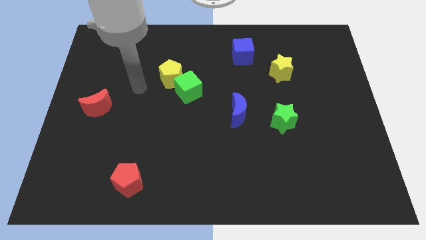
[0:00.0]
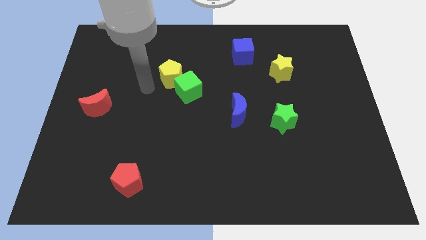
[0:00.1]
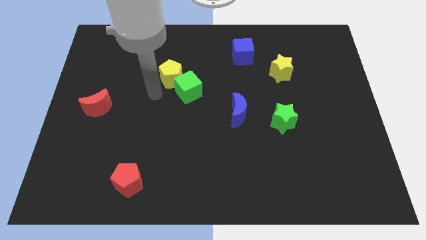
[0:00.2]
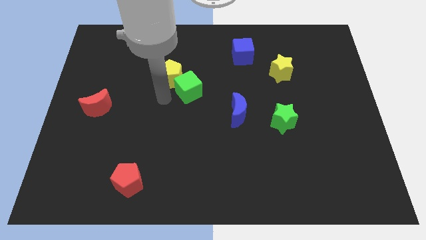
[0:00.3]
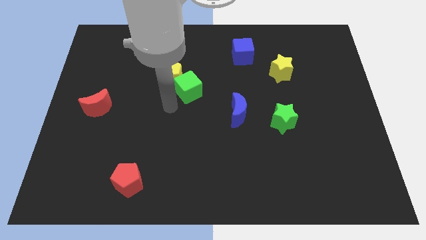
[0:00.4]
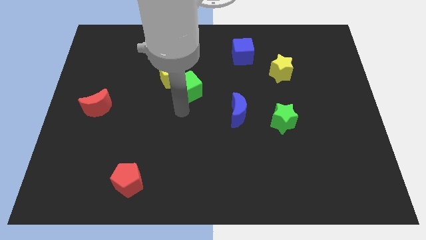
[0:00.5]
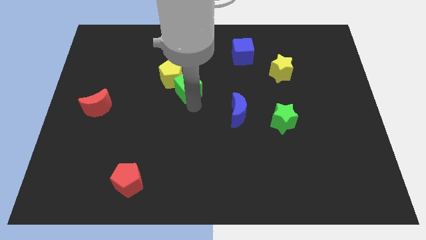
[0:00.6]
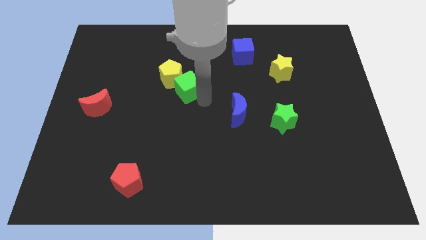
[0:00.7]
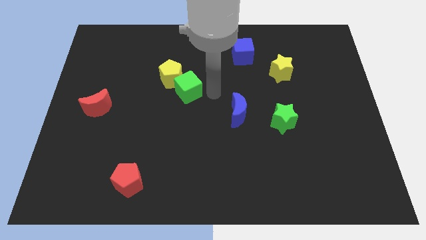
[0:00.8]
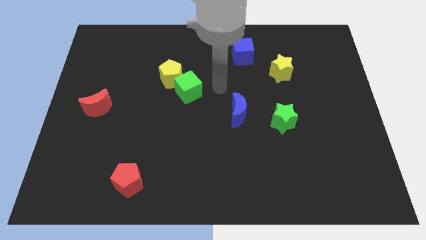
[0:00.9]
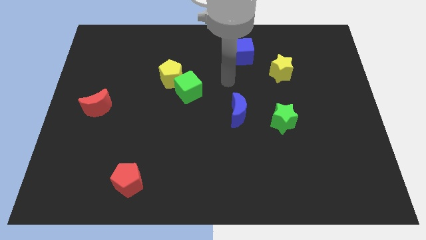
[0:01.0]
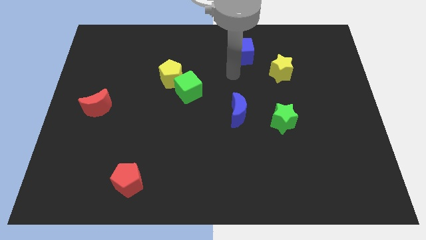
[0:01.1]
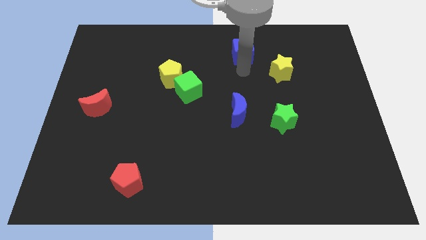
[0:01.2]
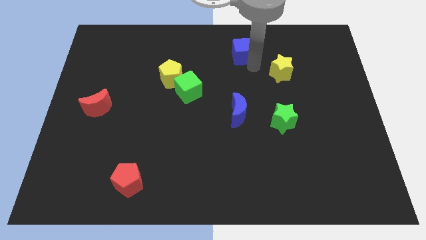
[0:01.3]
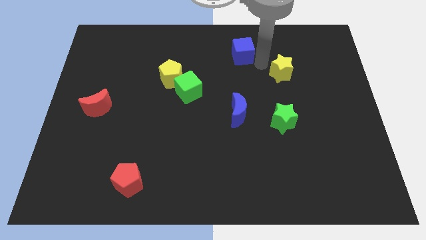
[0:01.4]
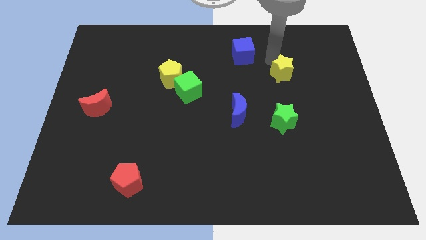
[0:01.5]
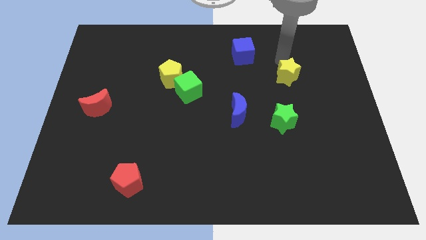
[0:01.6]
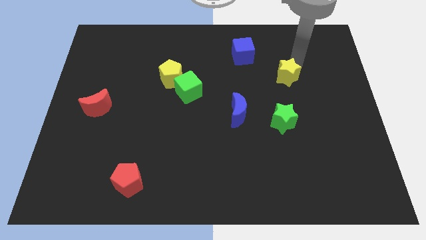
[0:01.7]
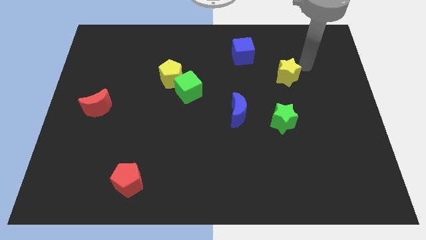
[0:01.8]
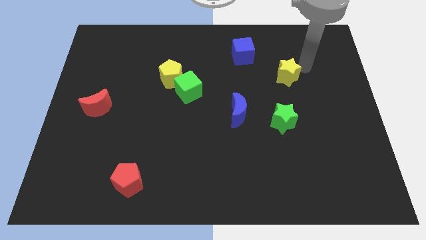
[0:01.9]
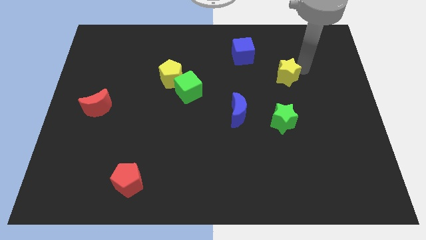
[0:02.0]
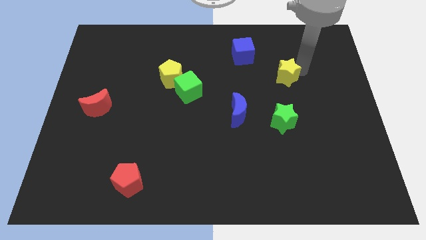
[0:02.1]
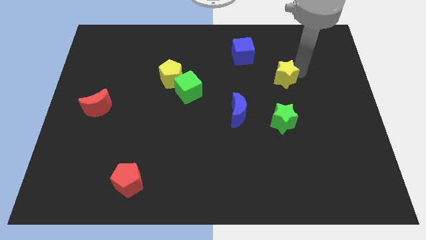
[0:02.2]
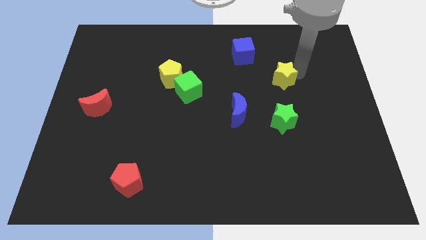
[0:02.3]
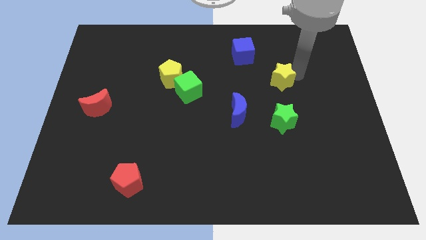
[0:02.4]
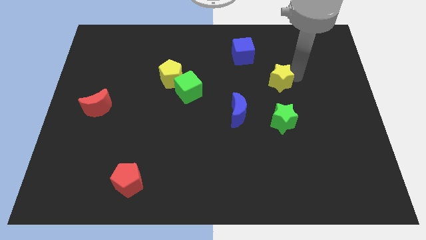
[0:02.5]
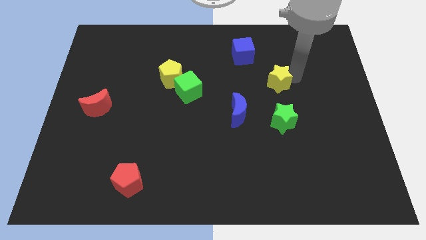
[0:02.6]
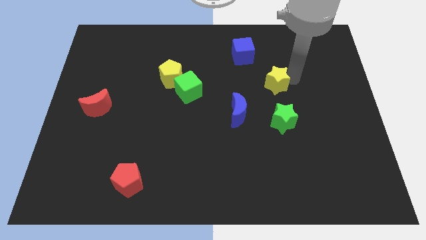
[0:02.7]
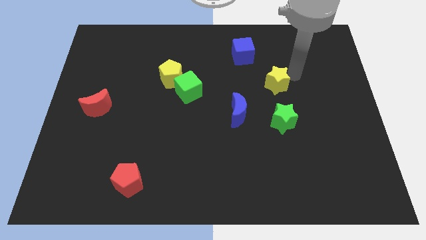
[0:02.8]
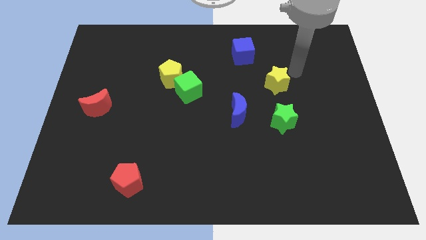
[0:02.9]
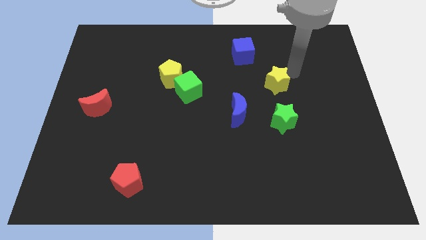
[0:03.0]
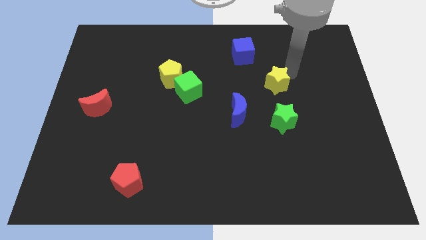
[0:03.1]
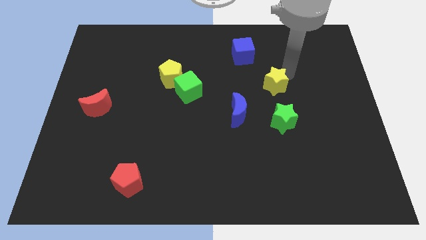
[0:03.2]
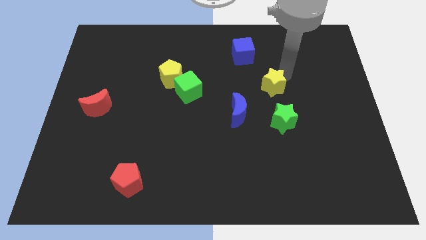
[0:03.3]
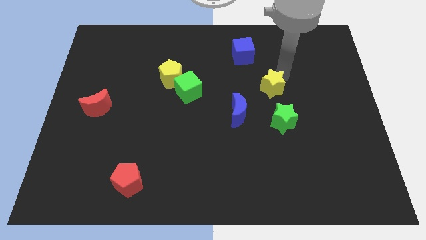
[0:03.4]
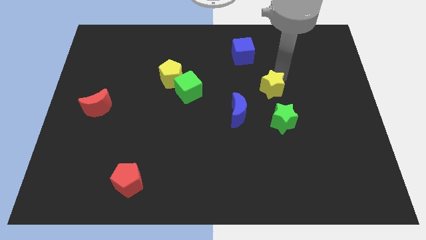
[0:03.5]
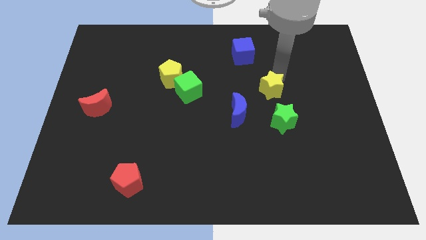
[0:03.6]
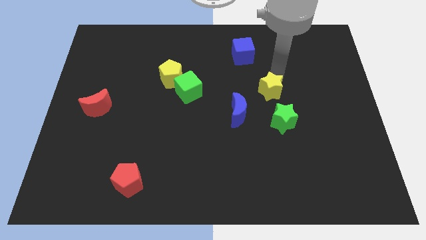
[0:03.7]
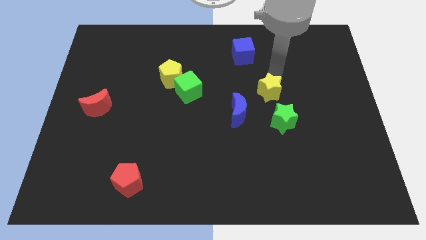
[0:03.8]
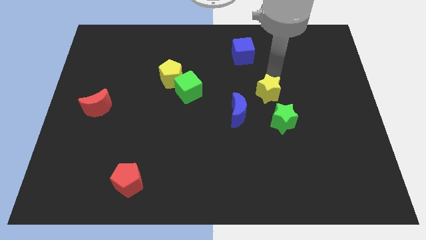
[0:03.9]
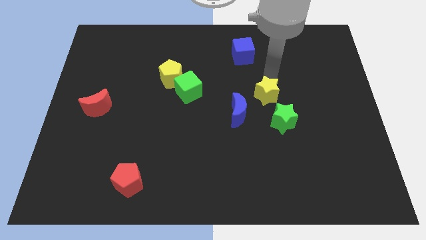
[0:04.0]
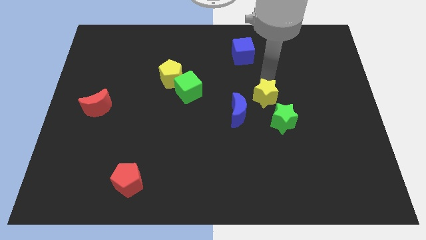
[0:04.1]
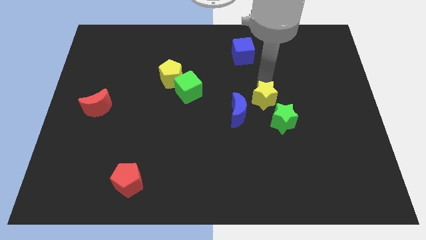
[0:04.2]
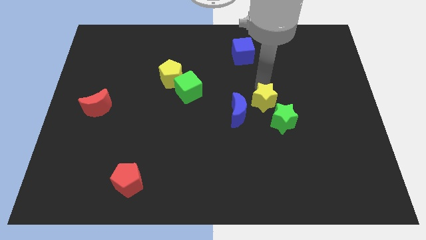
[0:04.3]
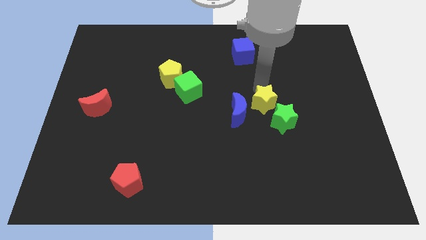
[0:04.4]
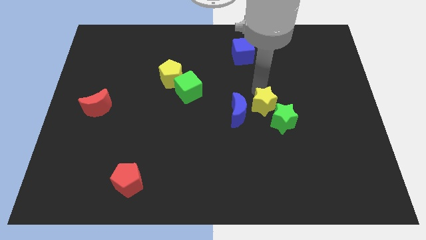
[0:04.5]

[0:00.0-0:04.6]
slide the yellow star towards the blue moon

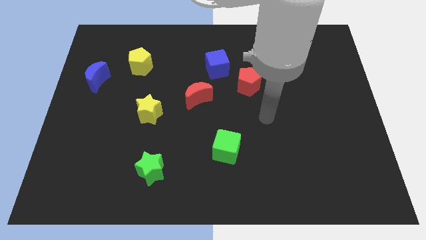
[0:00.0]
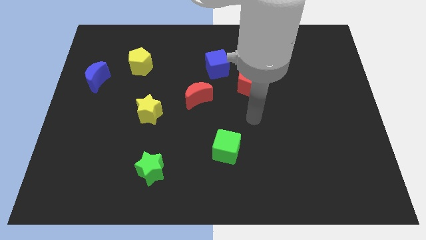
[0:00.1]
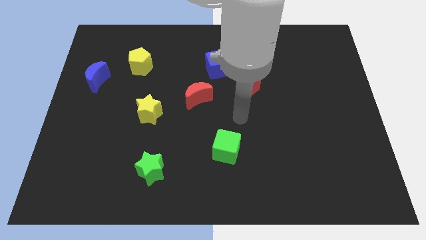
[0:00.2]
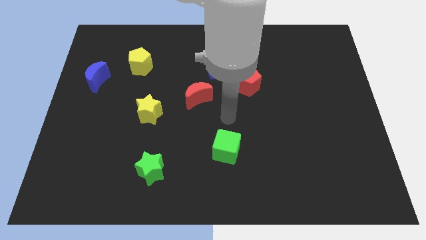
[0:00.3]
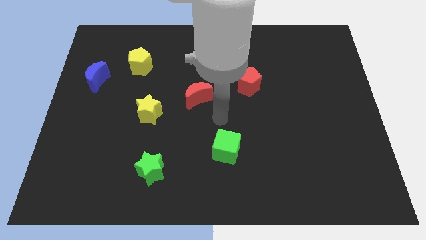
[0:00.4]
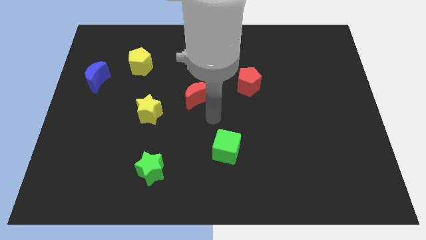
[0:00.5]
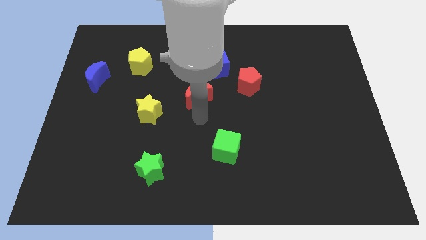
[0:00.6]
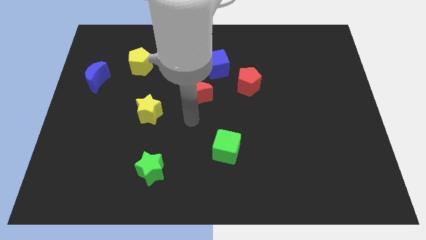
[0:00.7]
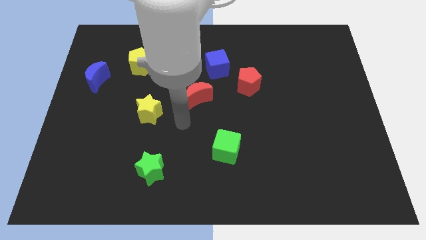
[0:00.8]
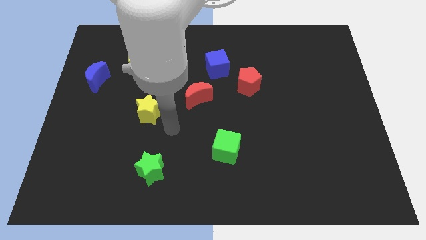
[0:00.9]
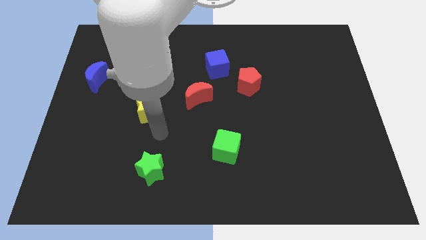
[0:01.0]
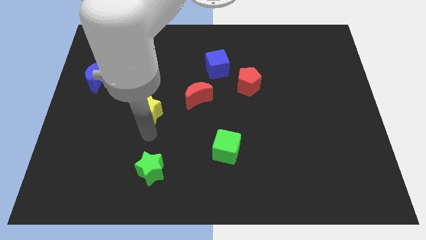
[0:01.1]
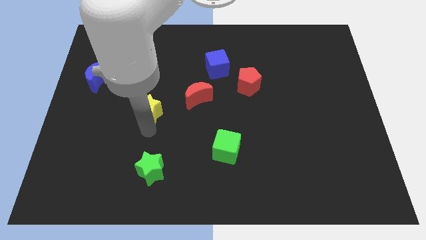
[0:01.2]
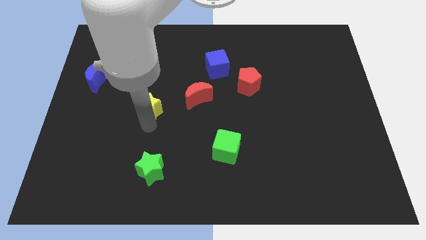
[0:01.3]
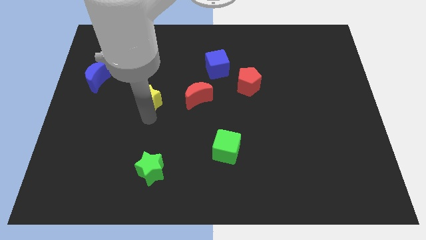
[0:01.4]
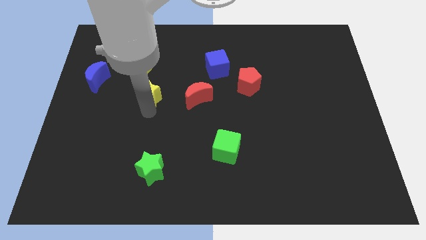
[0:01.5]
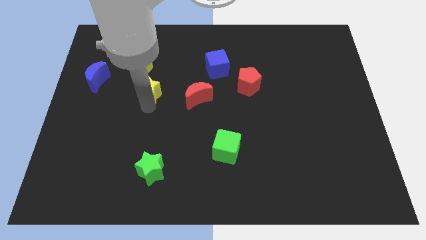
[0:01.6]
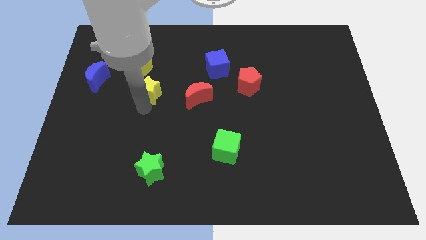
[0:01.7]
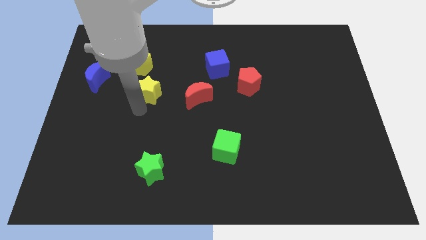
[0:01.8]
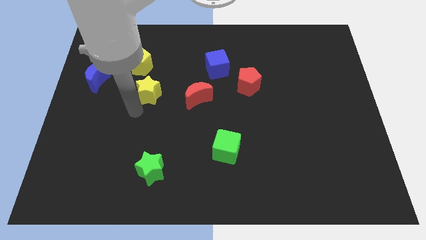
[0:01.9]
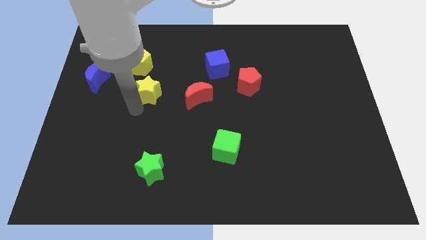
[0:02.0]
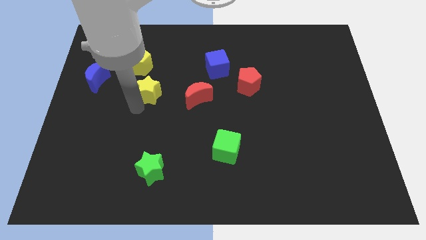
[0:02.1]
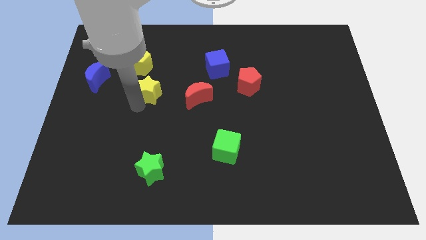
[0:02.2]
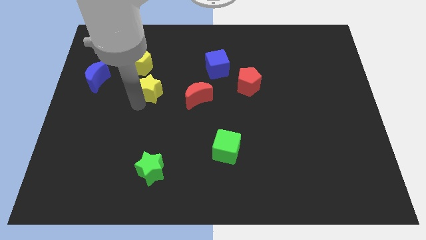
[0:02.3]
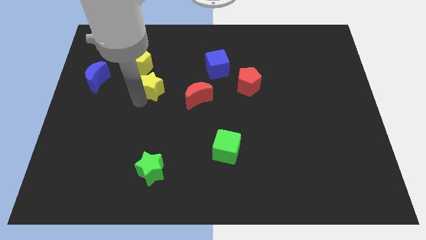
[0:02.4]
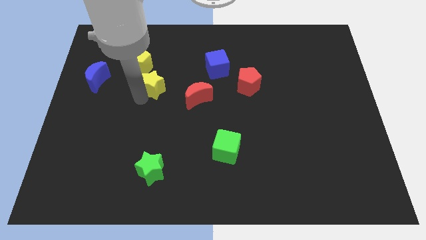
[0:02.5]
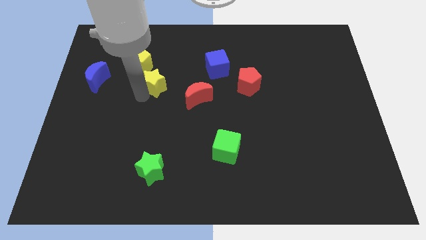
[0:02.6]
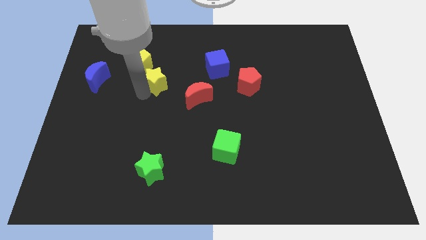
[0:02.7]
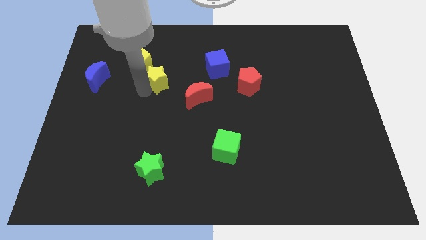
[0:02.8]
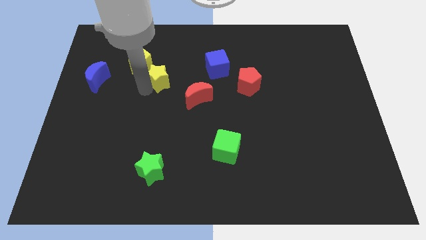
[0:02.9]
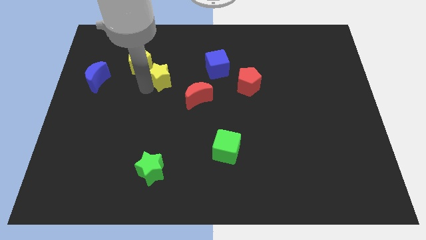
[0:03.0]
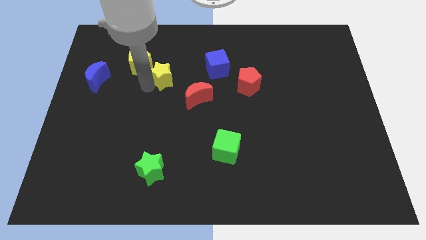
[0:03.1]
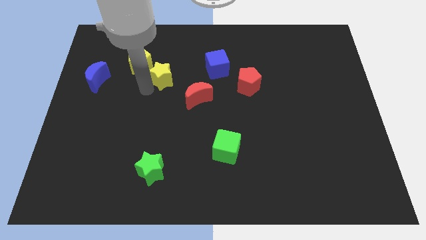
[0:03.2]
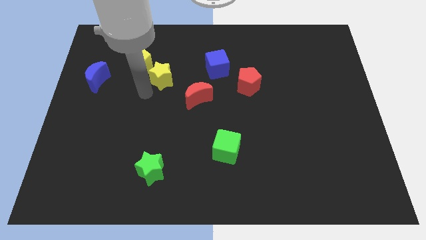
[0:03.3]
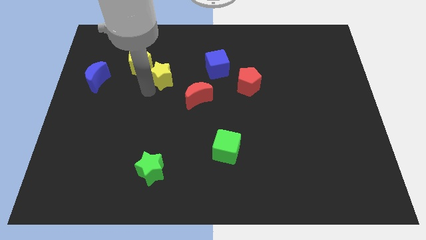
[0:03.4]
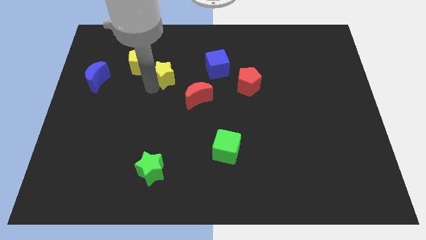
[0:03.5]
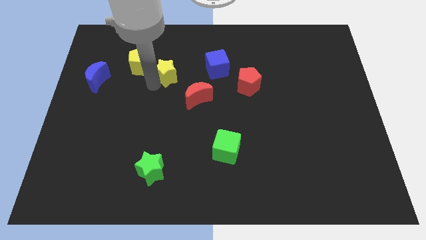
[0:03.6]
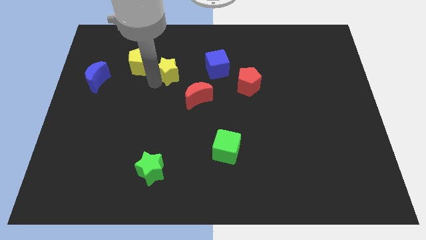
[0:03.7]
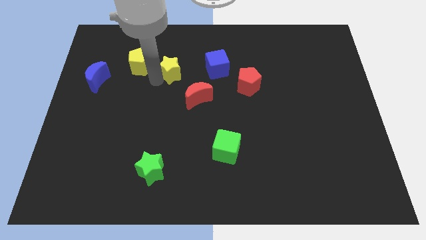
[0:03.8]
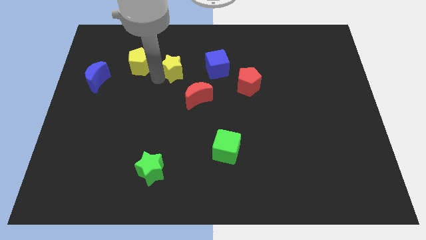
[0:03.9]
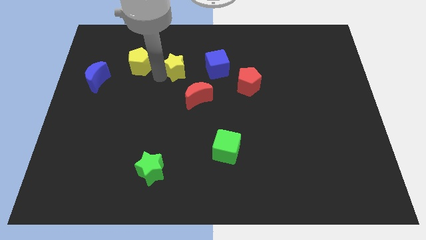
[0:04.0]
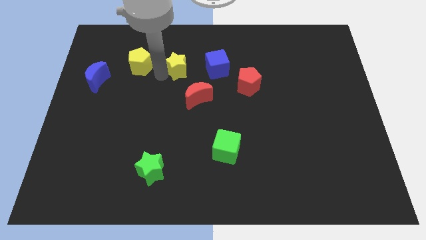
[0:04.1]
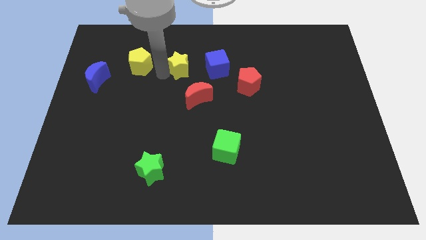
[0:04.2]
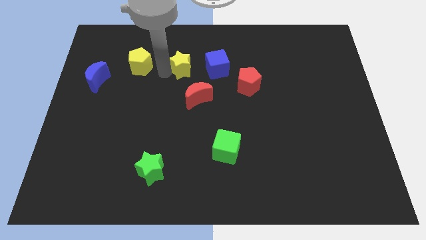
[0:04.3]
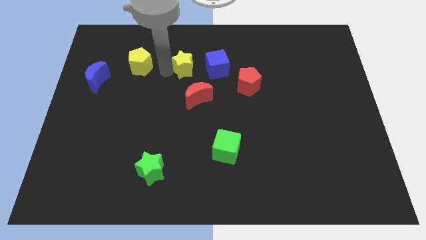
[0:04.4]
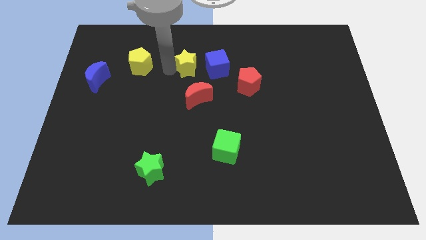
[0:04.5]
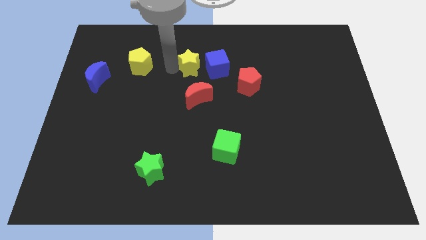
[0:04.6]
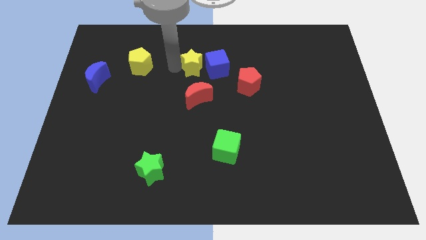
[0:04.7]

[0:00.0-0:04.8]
move the yellow star next to the blue cube
